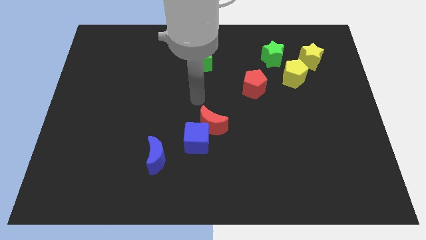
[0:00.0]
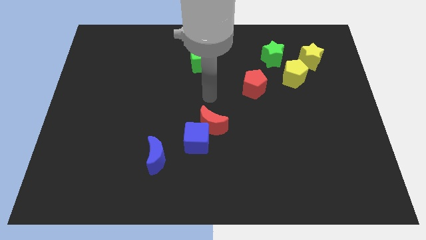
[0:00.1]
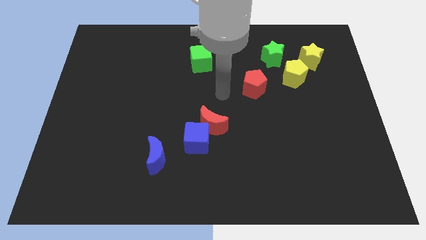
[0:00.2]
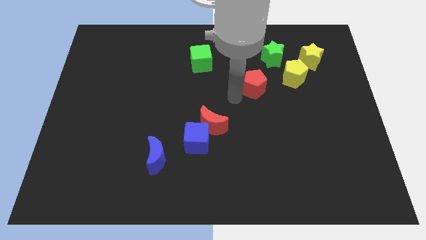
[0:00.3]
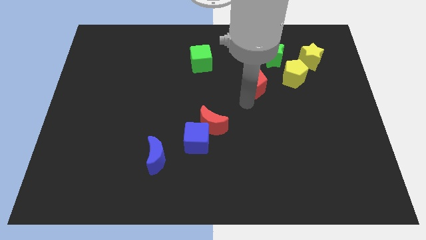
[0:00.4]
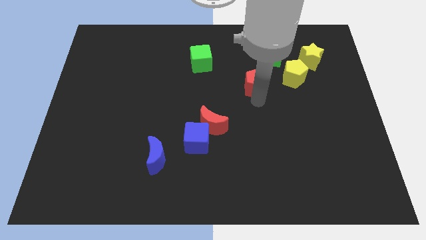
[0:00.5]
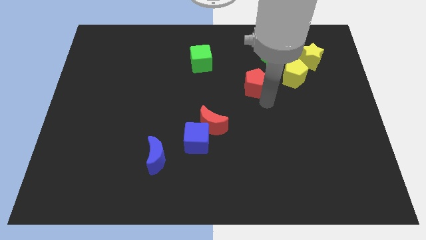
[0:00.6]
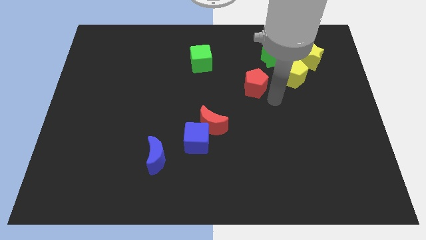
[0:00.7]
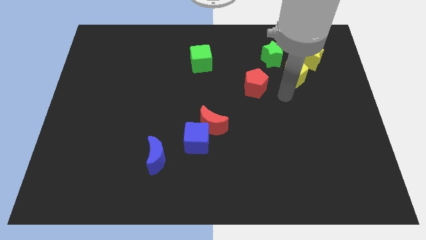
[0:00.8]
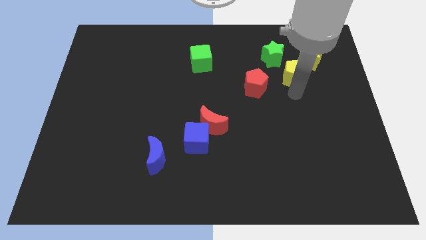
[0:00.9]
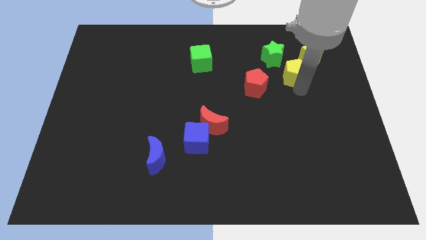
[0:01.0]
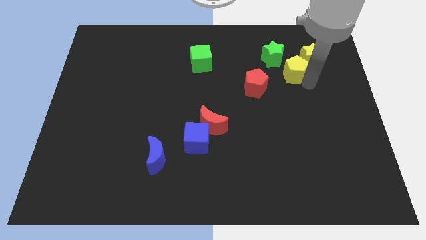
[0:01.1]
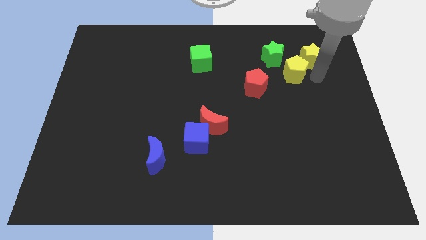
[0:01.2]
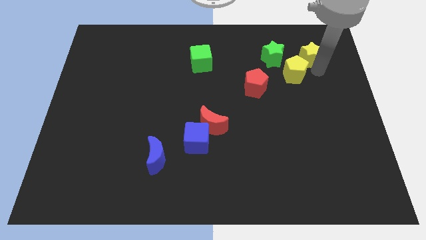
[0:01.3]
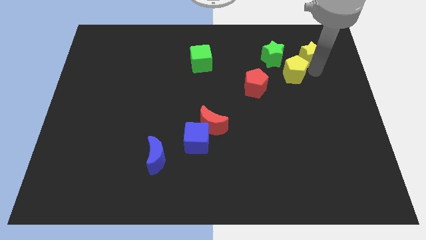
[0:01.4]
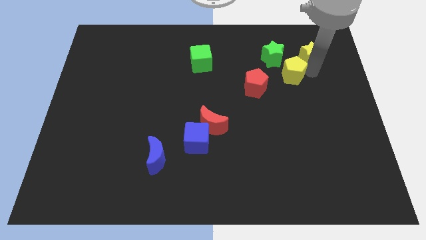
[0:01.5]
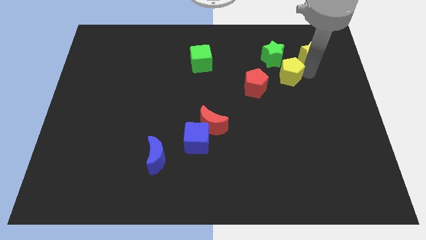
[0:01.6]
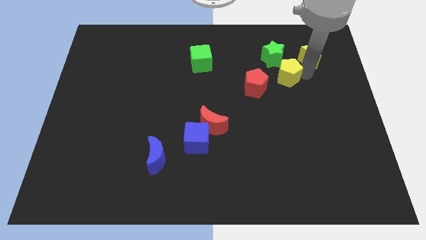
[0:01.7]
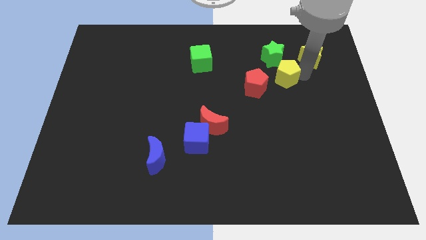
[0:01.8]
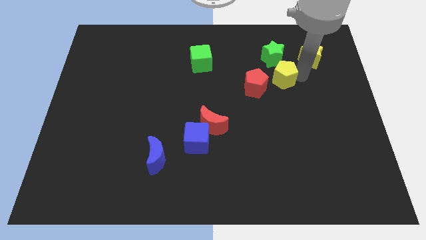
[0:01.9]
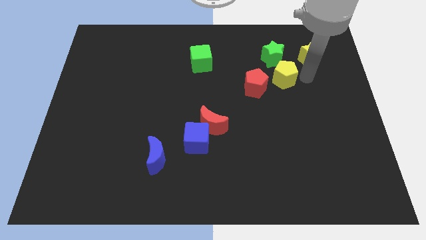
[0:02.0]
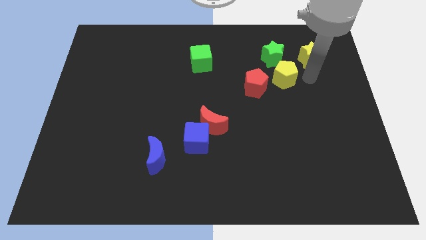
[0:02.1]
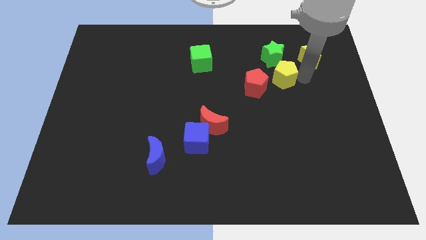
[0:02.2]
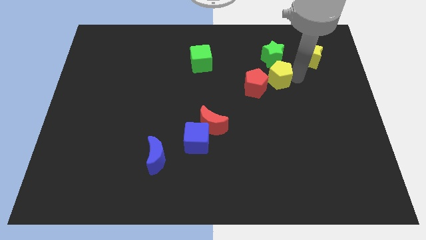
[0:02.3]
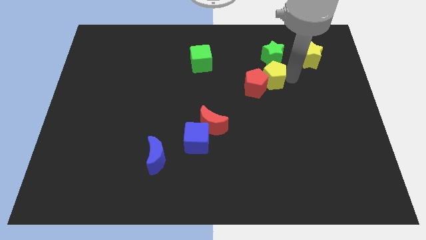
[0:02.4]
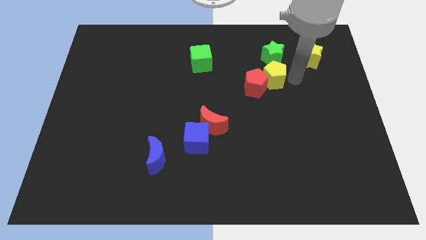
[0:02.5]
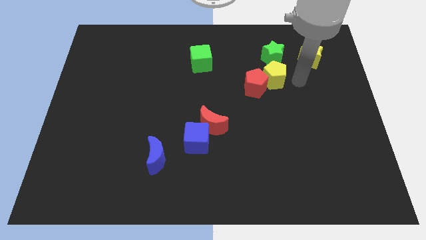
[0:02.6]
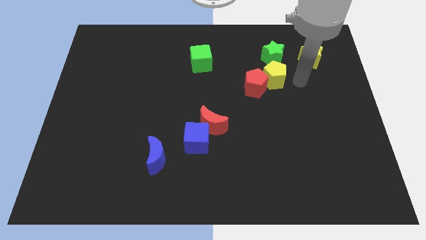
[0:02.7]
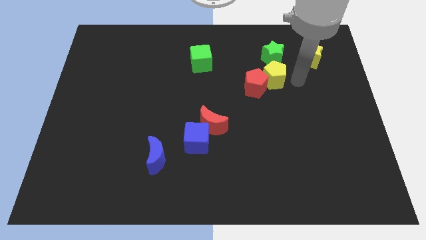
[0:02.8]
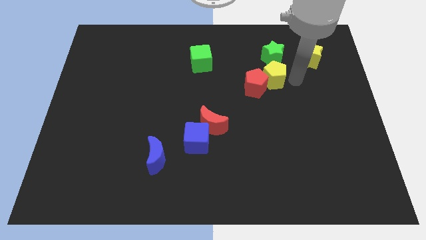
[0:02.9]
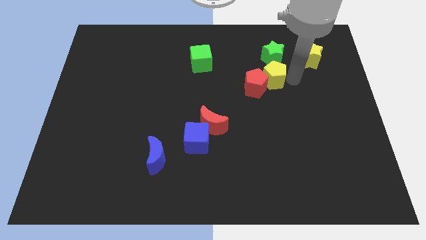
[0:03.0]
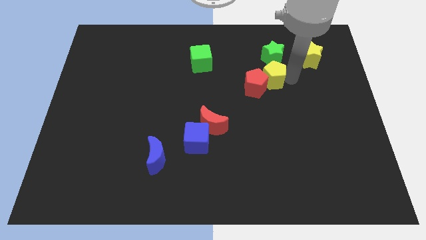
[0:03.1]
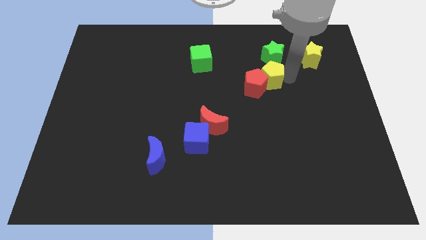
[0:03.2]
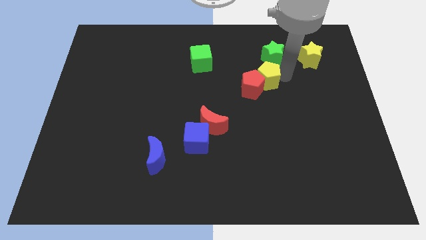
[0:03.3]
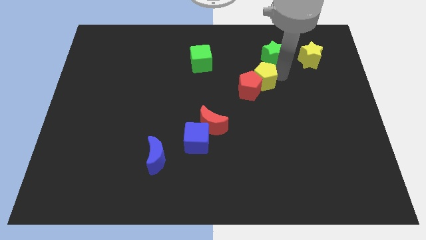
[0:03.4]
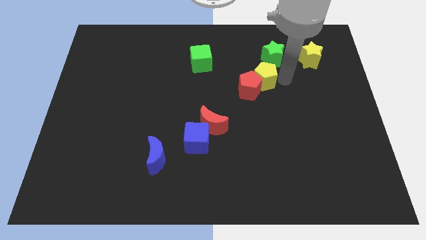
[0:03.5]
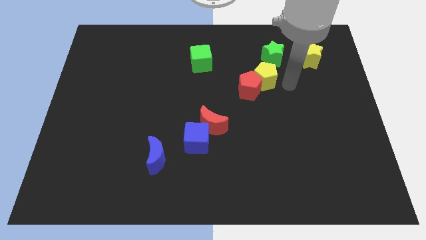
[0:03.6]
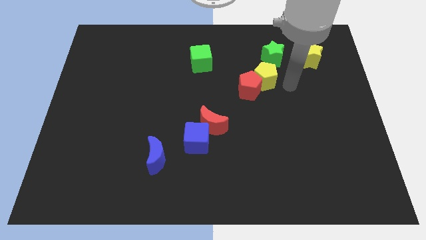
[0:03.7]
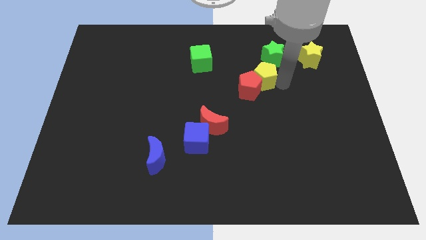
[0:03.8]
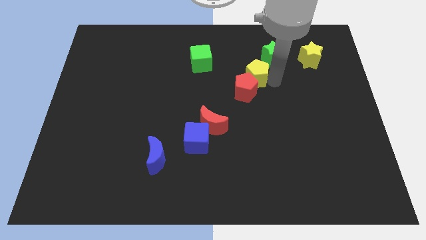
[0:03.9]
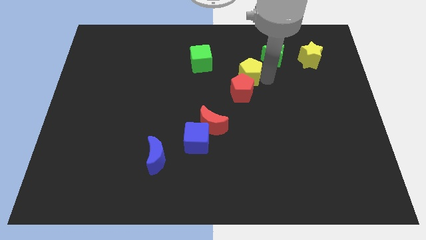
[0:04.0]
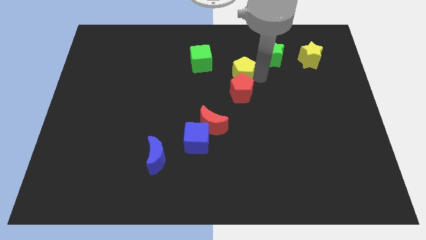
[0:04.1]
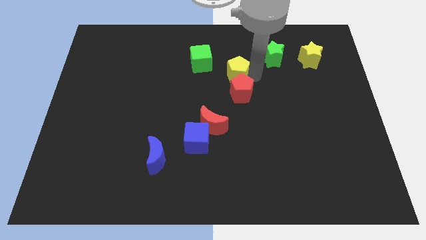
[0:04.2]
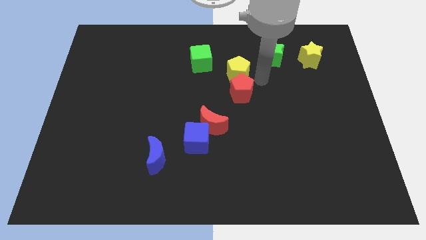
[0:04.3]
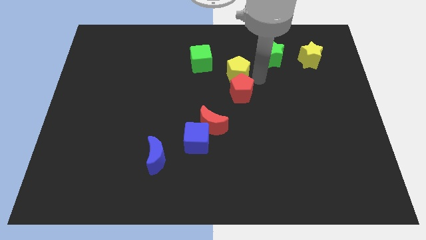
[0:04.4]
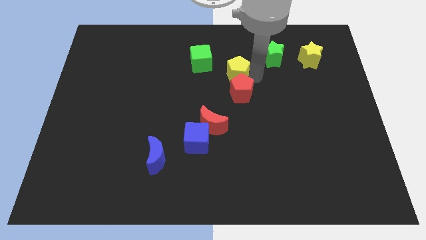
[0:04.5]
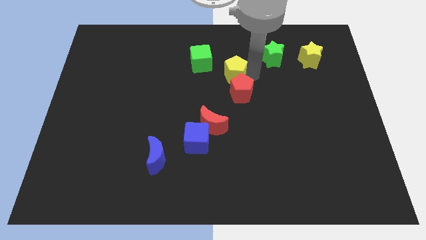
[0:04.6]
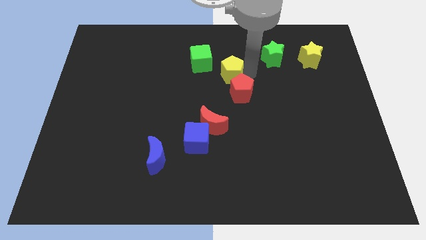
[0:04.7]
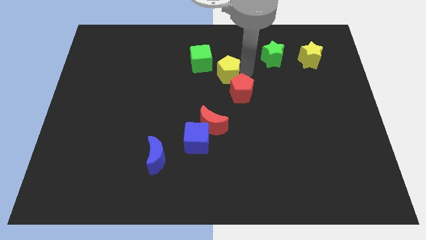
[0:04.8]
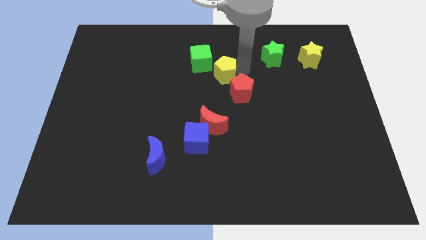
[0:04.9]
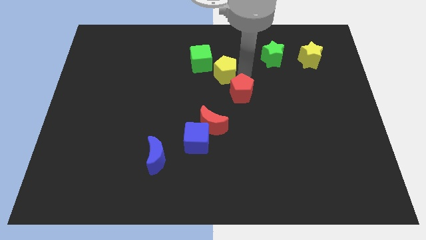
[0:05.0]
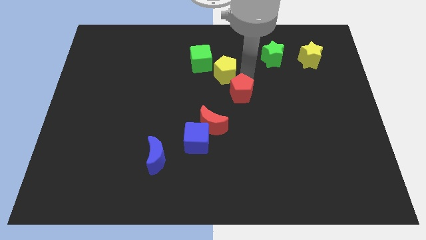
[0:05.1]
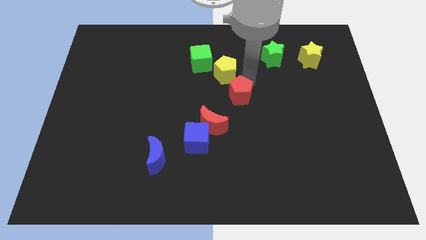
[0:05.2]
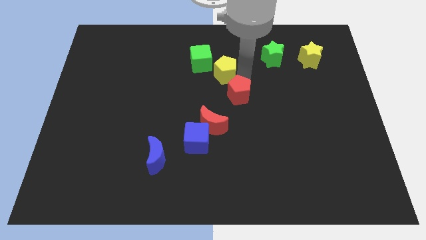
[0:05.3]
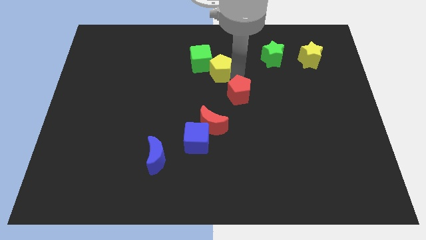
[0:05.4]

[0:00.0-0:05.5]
put the yellow pentagon next to the green cube

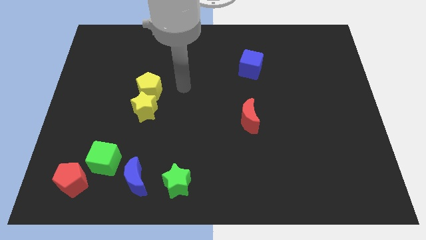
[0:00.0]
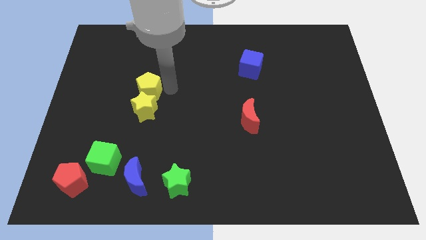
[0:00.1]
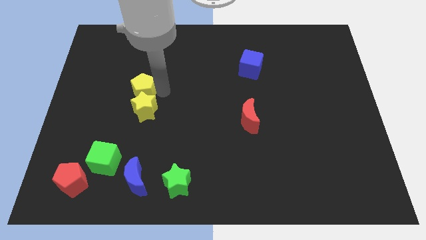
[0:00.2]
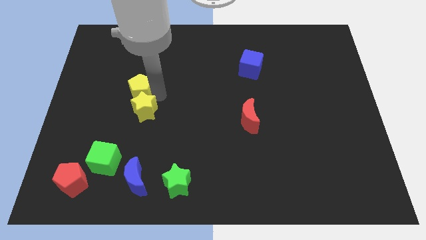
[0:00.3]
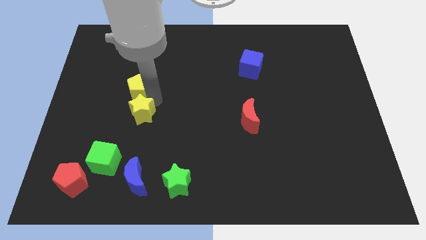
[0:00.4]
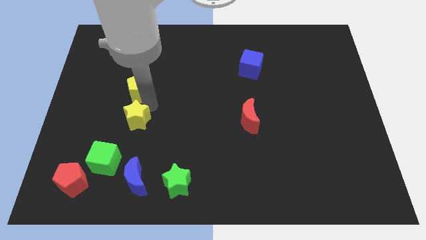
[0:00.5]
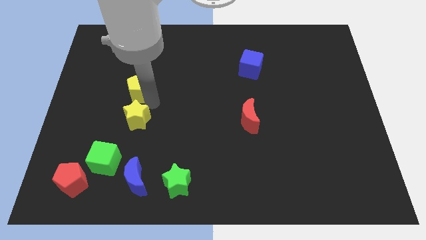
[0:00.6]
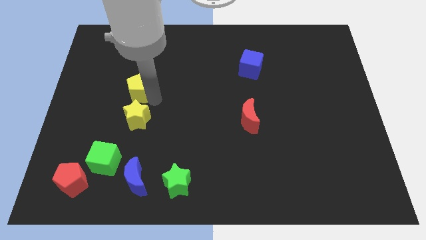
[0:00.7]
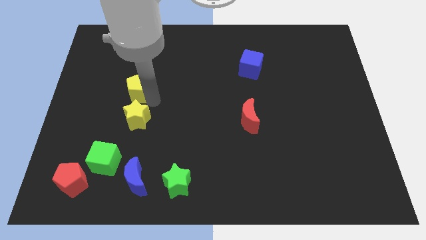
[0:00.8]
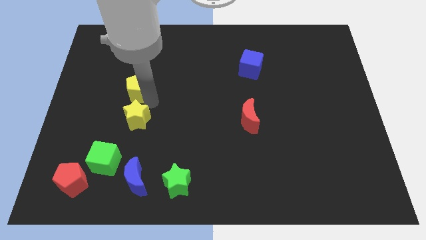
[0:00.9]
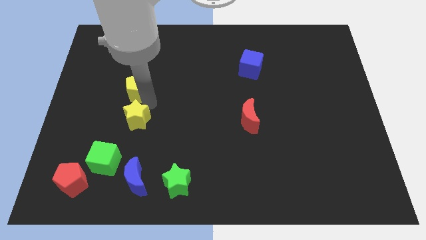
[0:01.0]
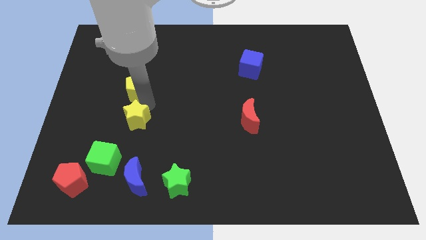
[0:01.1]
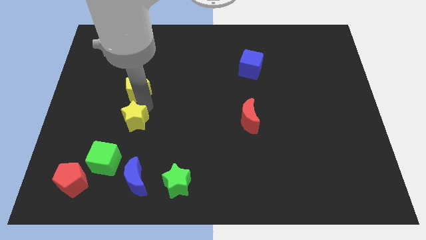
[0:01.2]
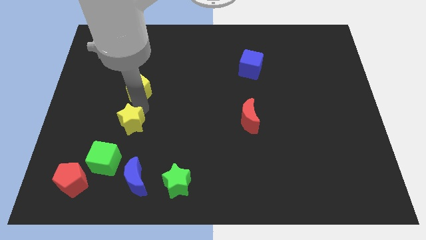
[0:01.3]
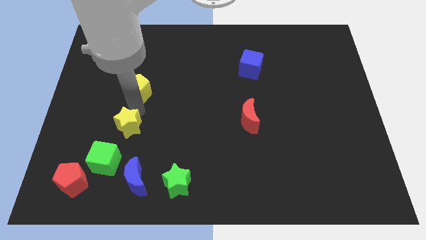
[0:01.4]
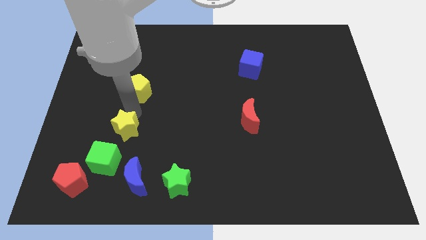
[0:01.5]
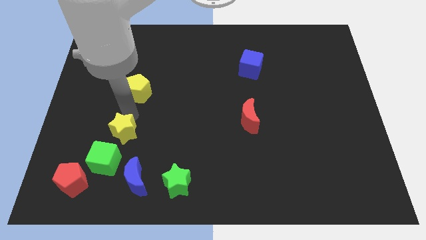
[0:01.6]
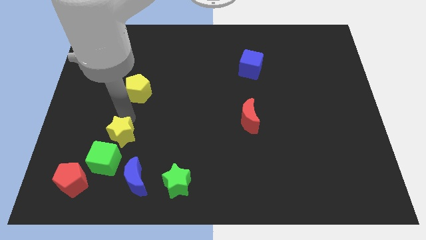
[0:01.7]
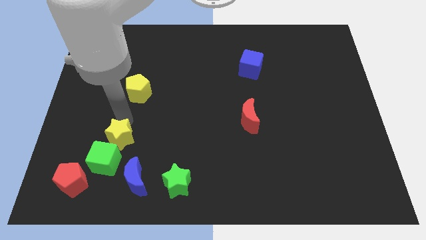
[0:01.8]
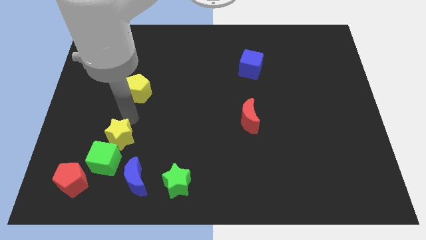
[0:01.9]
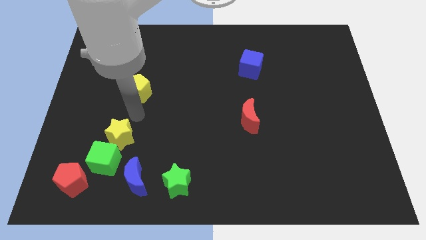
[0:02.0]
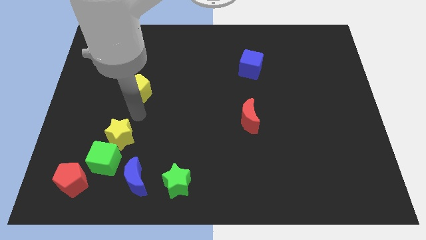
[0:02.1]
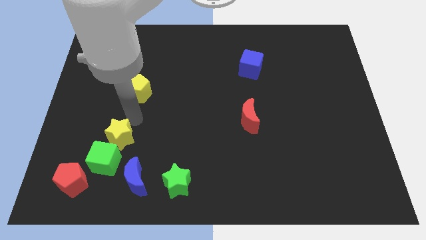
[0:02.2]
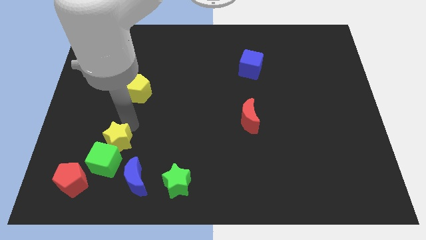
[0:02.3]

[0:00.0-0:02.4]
put the yellow star towards the green cube
